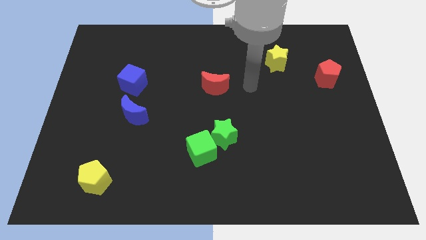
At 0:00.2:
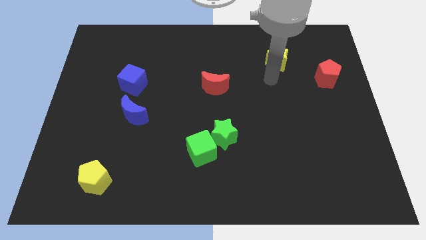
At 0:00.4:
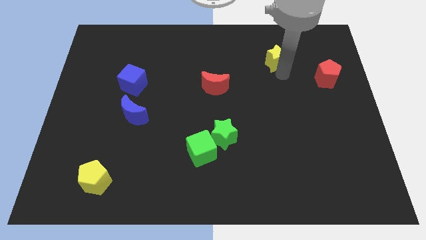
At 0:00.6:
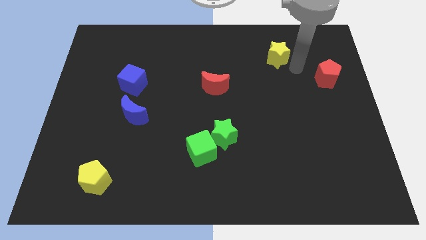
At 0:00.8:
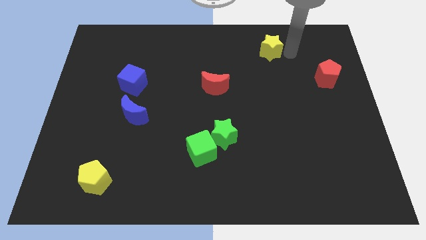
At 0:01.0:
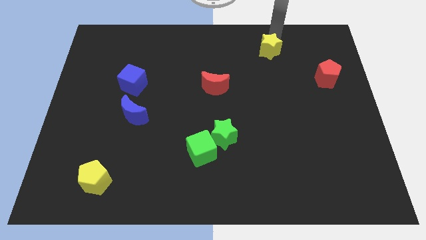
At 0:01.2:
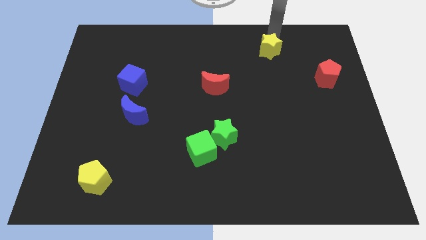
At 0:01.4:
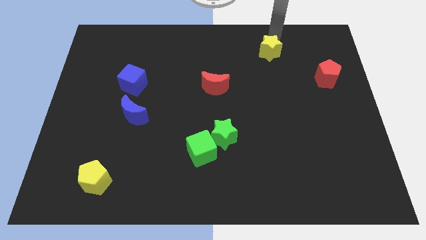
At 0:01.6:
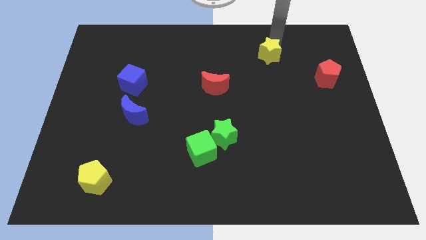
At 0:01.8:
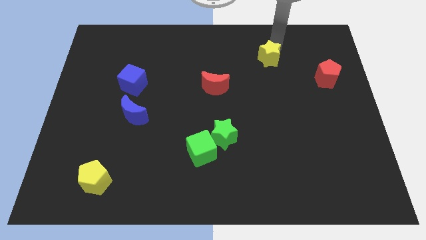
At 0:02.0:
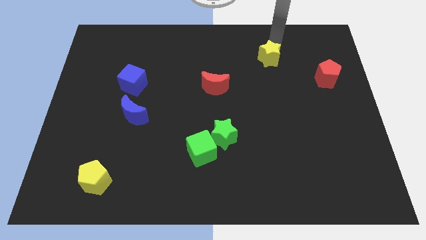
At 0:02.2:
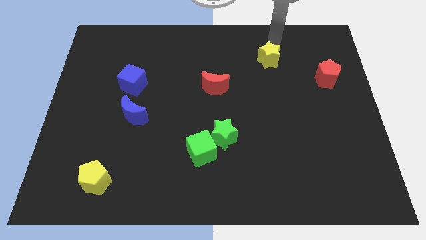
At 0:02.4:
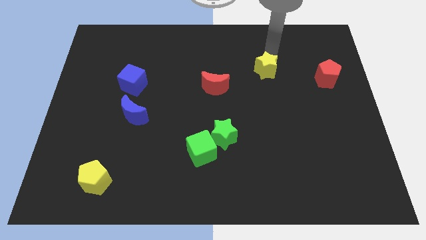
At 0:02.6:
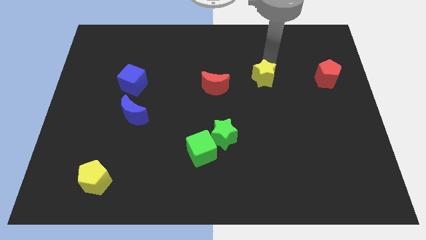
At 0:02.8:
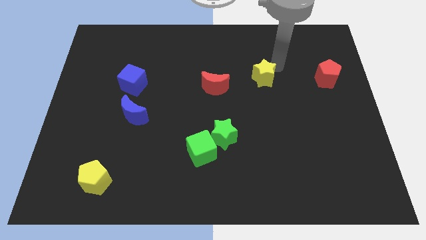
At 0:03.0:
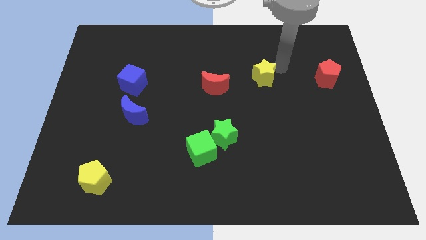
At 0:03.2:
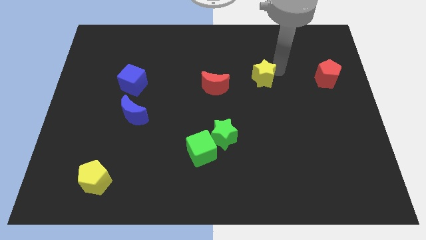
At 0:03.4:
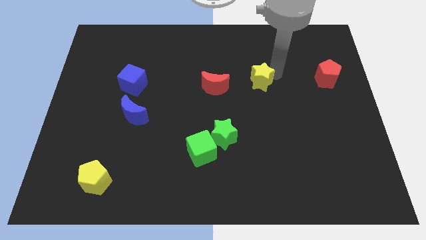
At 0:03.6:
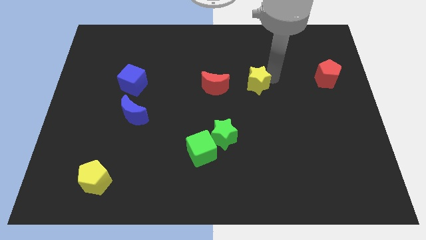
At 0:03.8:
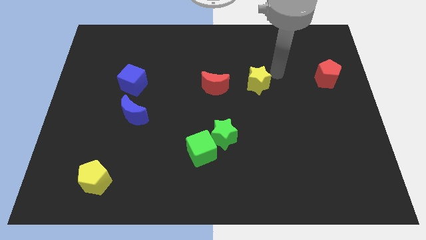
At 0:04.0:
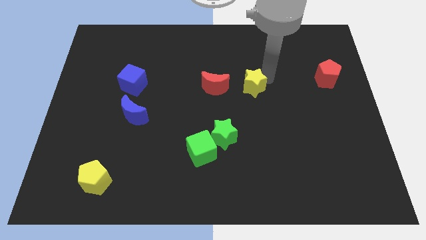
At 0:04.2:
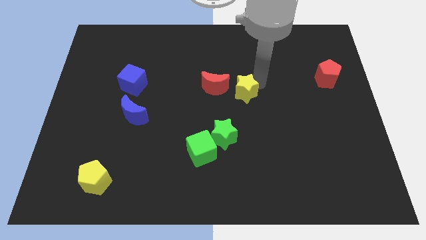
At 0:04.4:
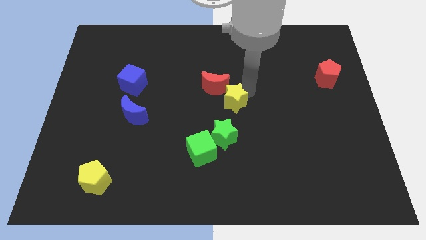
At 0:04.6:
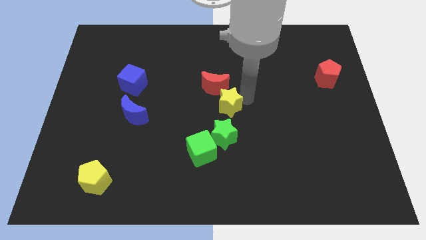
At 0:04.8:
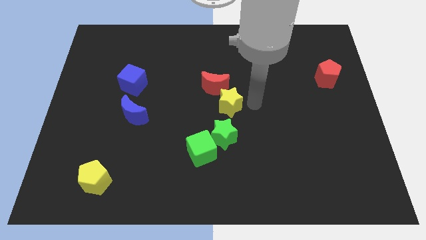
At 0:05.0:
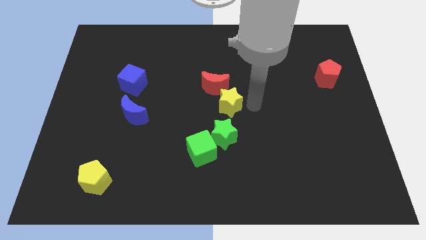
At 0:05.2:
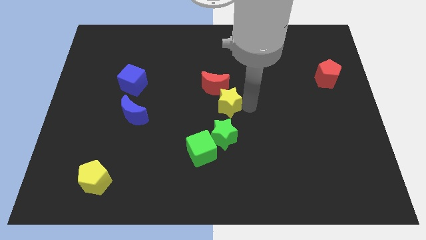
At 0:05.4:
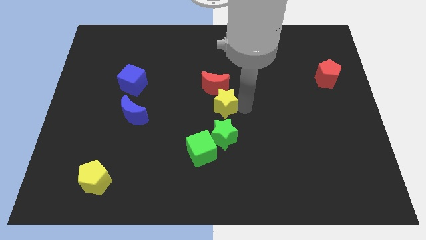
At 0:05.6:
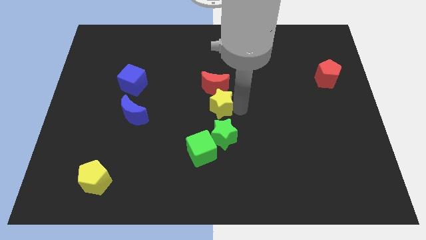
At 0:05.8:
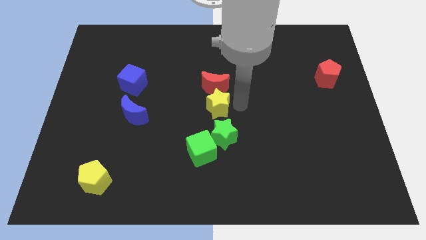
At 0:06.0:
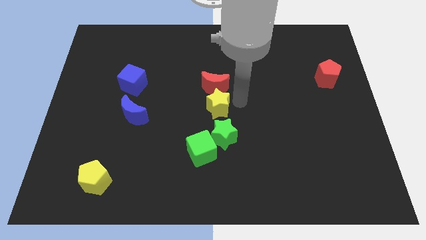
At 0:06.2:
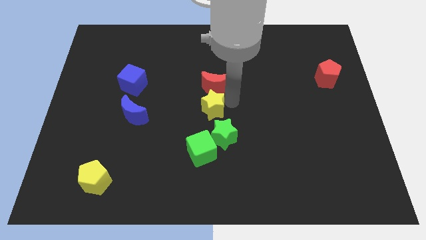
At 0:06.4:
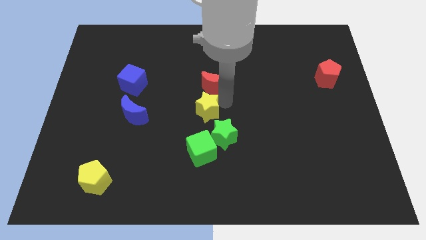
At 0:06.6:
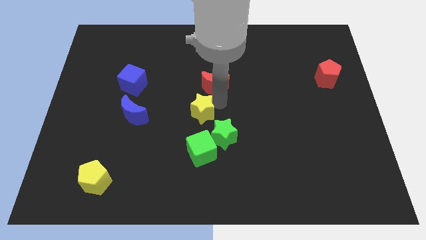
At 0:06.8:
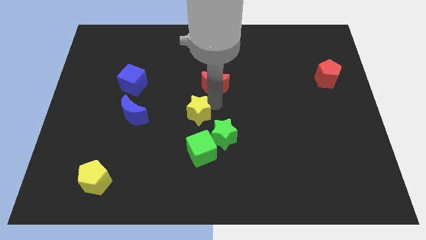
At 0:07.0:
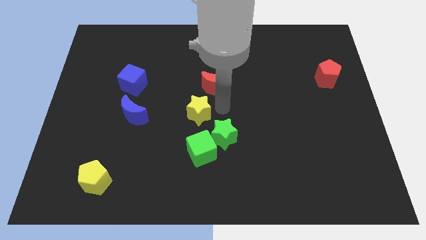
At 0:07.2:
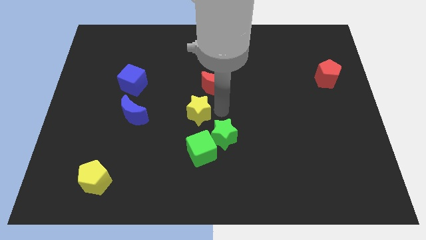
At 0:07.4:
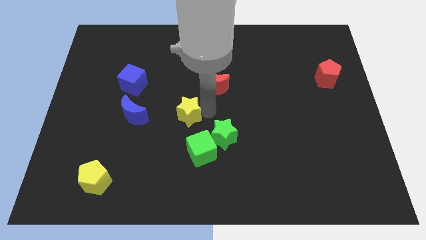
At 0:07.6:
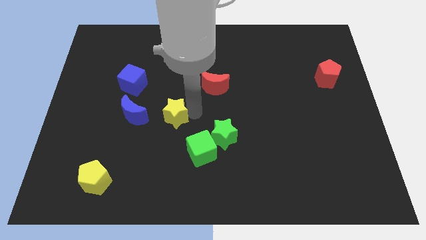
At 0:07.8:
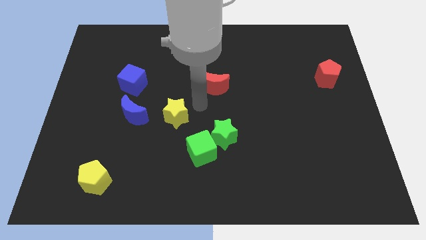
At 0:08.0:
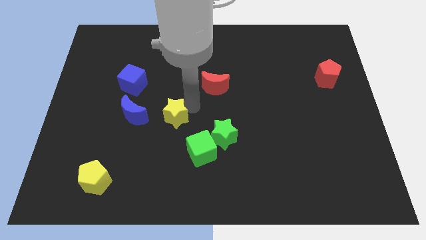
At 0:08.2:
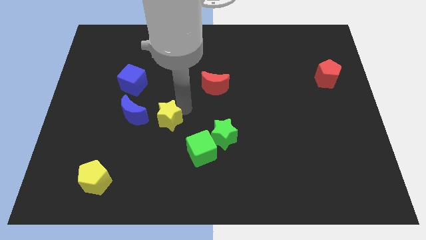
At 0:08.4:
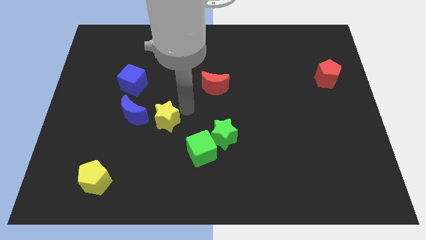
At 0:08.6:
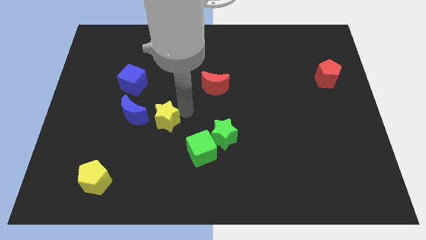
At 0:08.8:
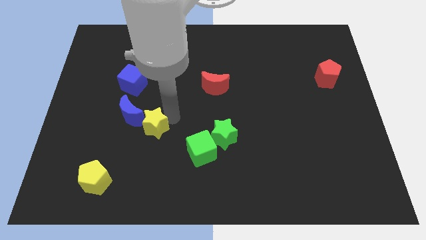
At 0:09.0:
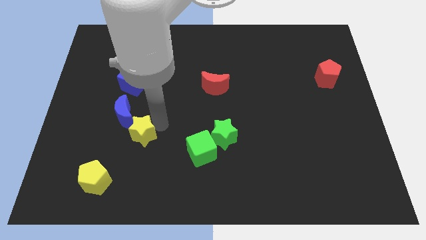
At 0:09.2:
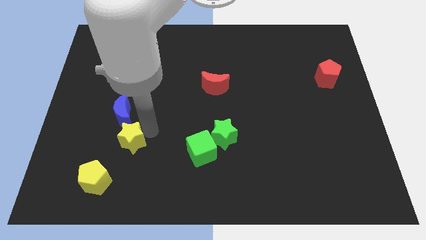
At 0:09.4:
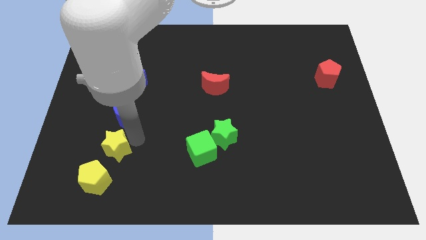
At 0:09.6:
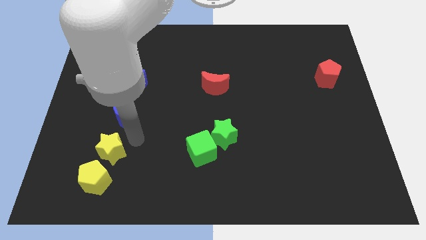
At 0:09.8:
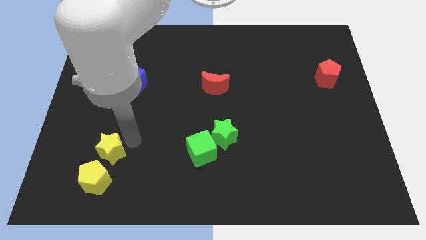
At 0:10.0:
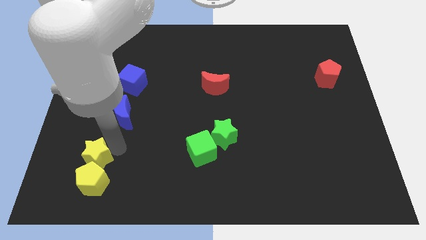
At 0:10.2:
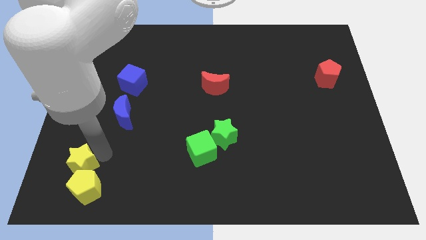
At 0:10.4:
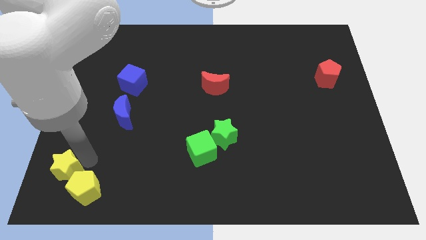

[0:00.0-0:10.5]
push the yellow star to the bottom left of the board

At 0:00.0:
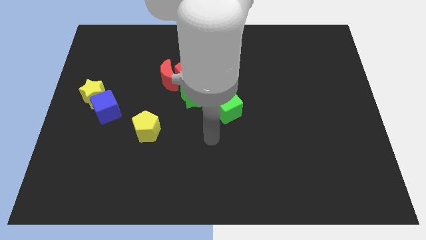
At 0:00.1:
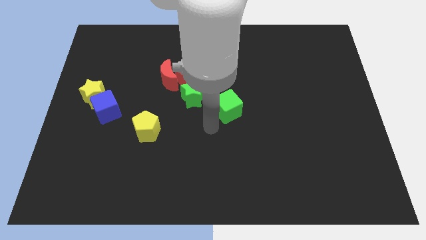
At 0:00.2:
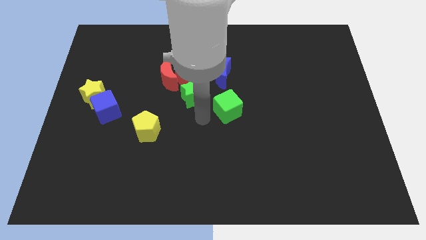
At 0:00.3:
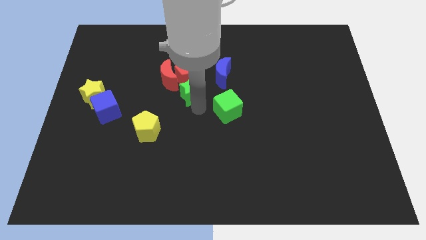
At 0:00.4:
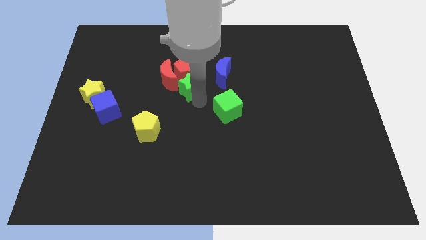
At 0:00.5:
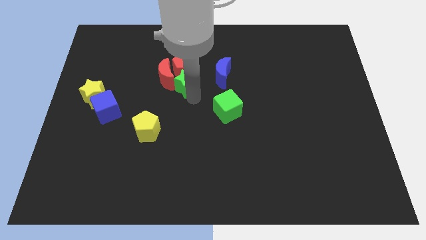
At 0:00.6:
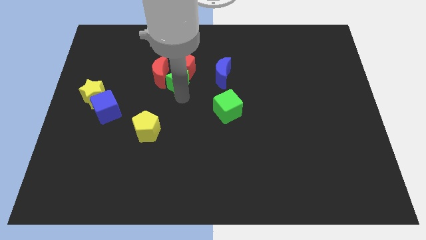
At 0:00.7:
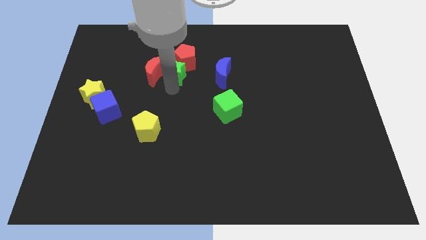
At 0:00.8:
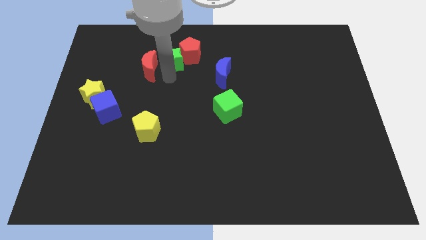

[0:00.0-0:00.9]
move the red pentagon to the top

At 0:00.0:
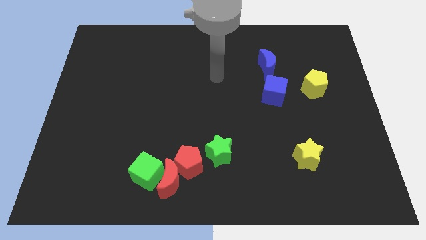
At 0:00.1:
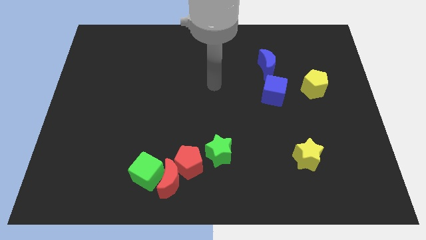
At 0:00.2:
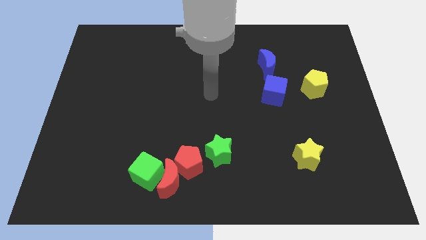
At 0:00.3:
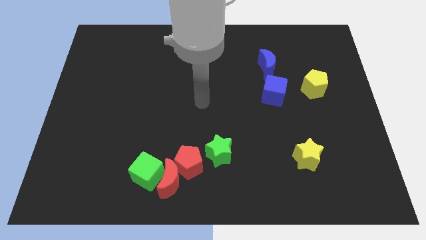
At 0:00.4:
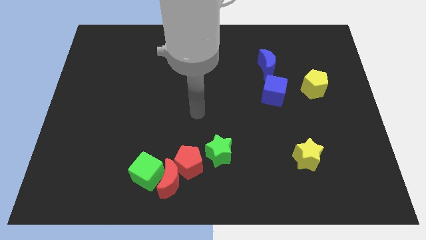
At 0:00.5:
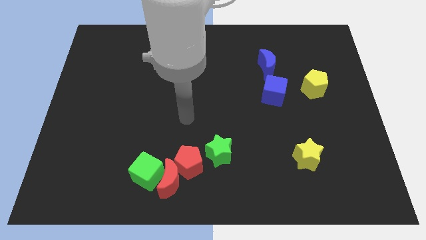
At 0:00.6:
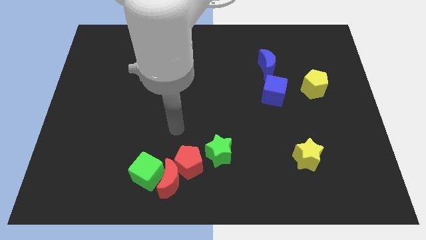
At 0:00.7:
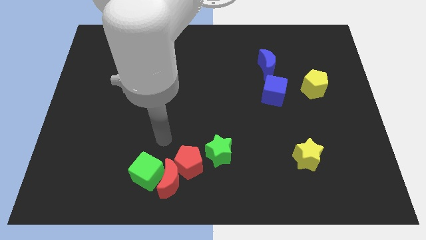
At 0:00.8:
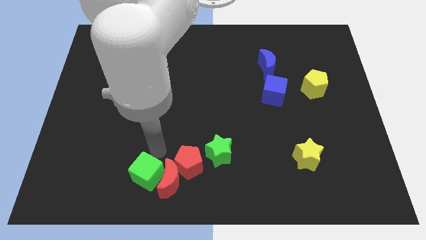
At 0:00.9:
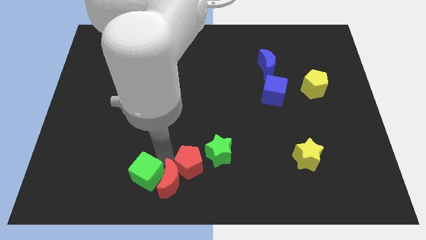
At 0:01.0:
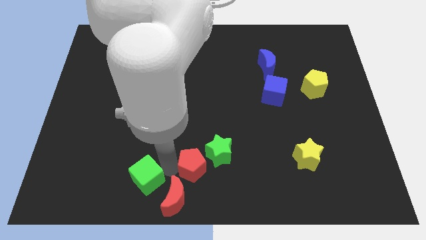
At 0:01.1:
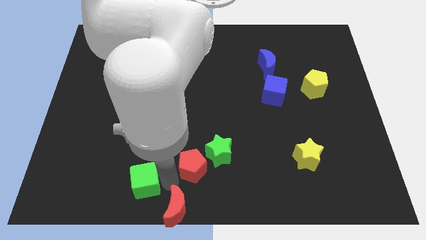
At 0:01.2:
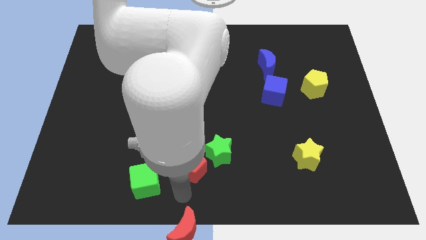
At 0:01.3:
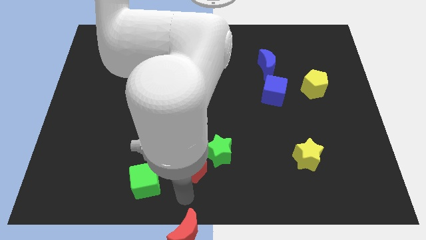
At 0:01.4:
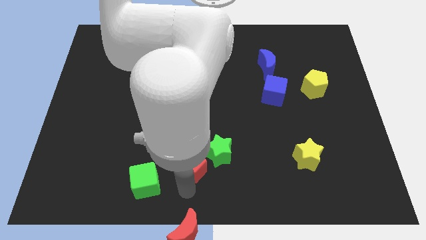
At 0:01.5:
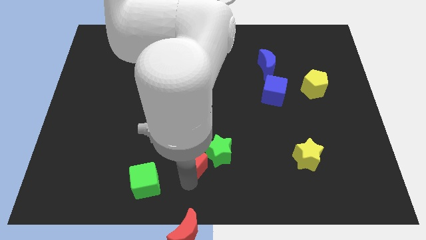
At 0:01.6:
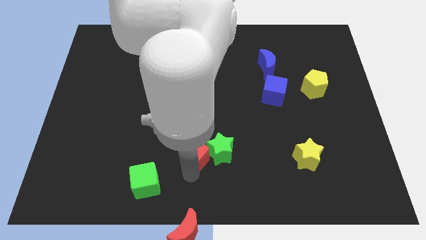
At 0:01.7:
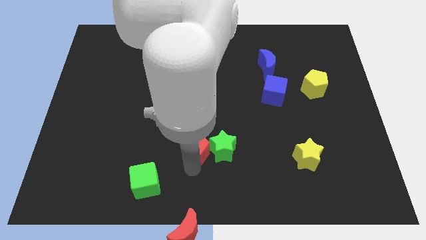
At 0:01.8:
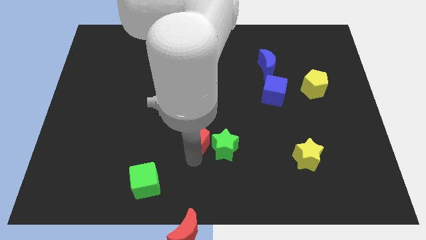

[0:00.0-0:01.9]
move the red pentagon to the center of the board
